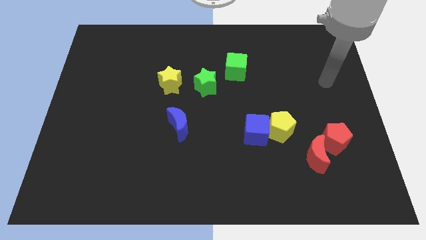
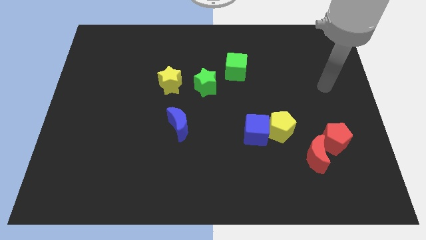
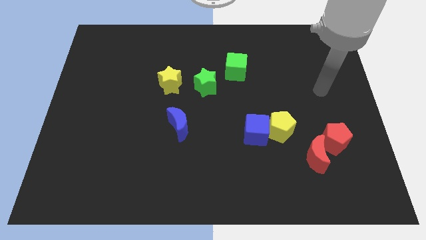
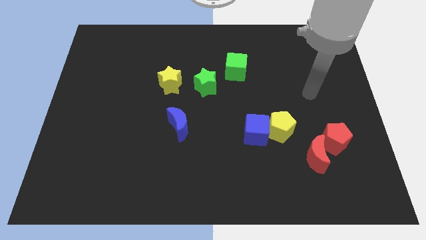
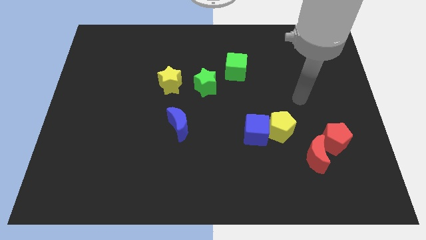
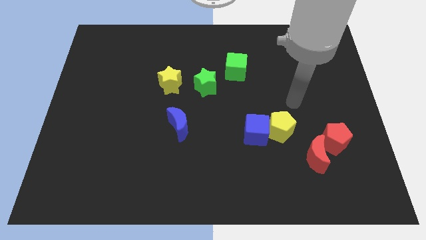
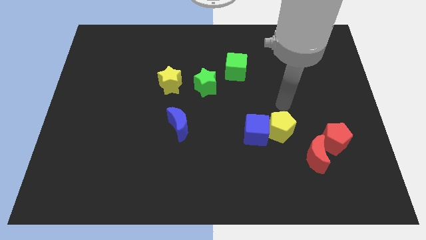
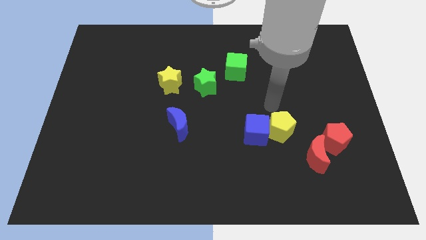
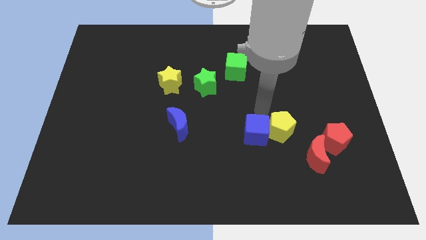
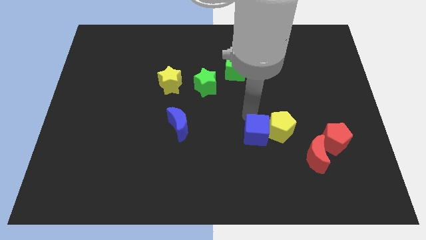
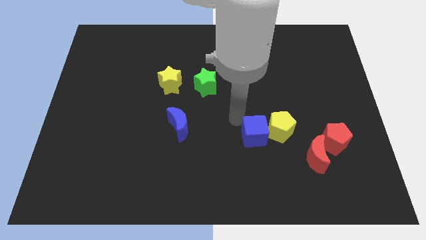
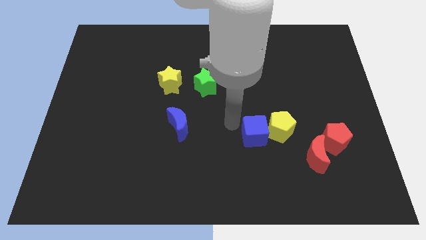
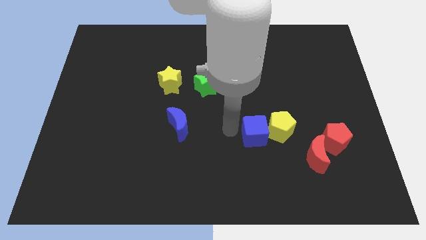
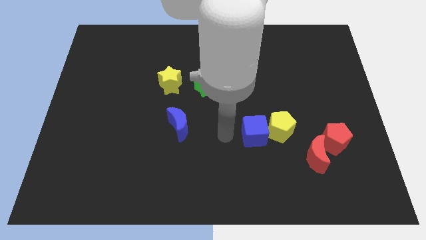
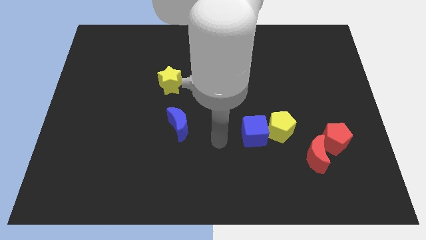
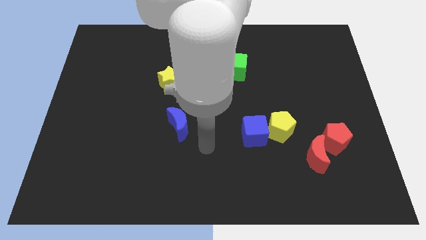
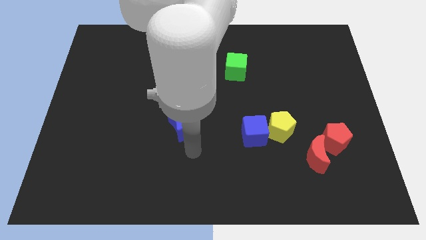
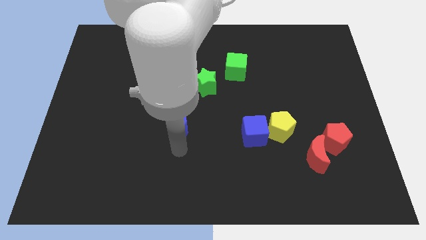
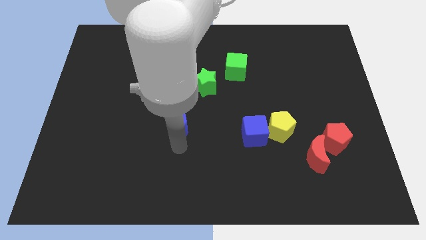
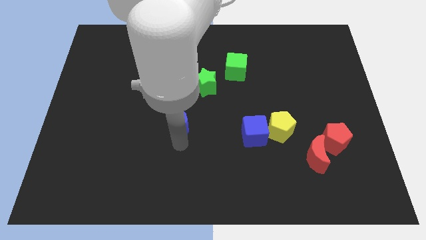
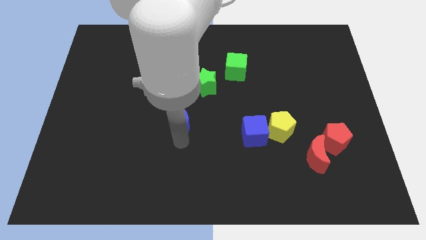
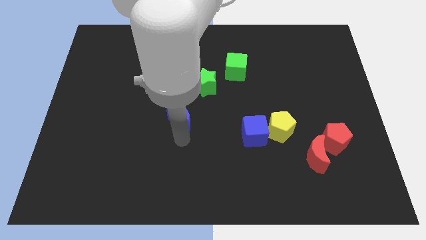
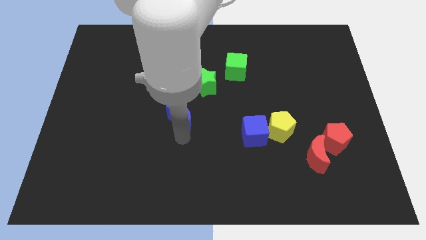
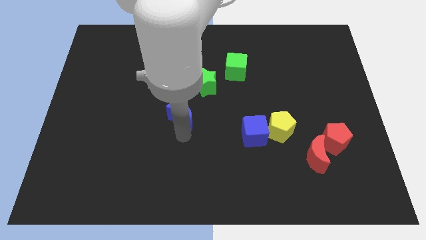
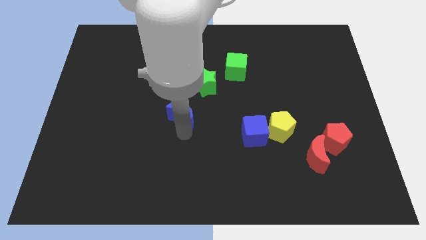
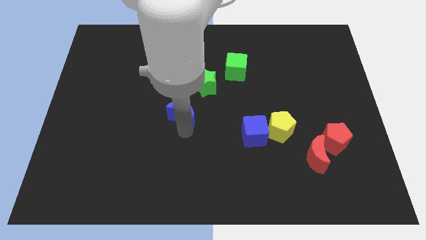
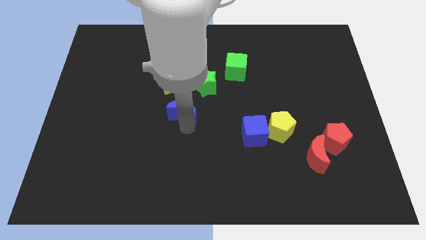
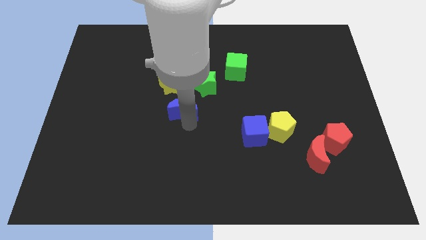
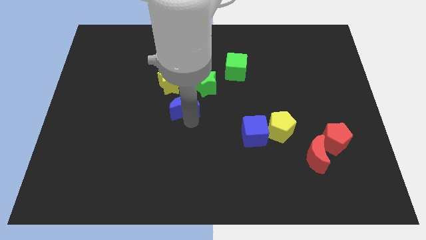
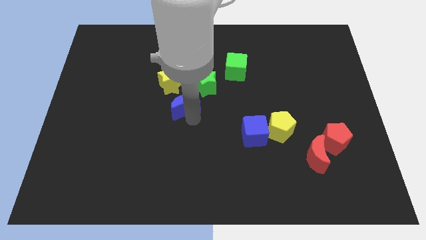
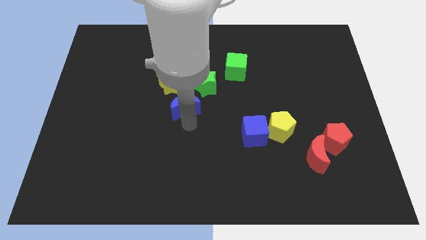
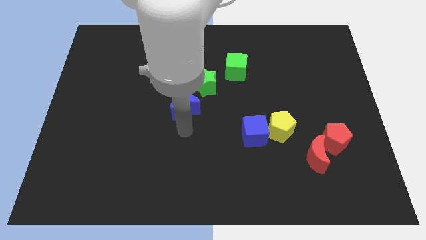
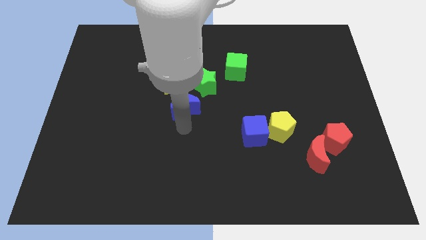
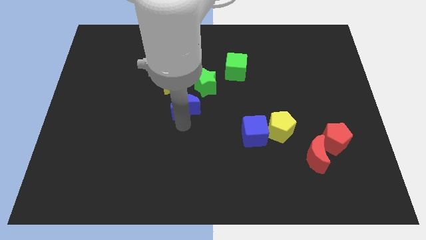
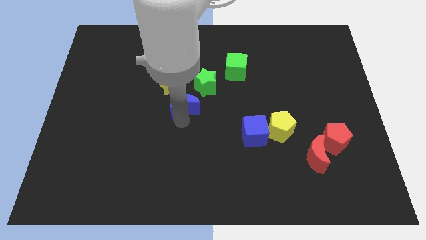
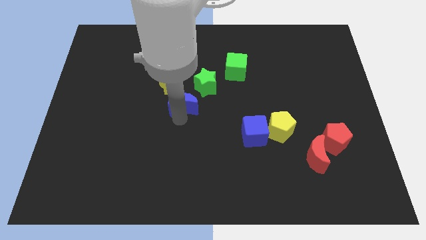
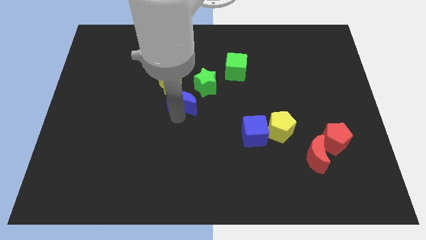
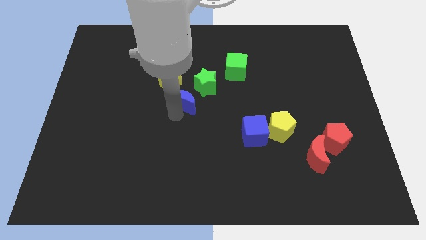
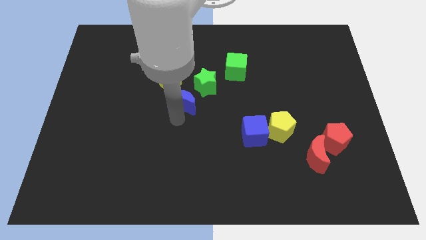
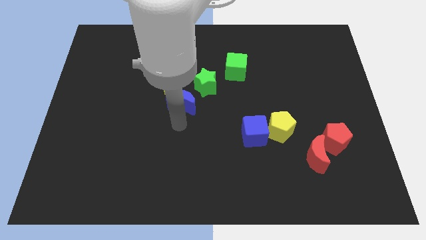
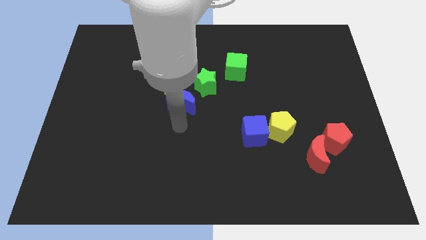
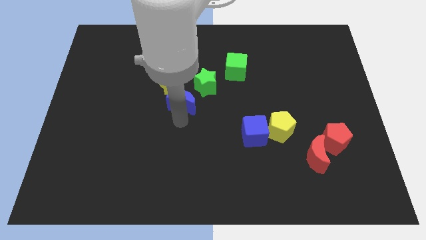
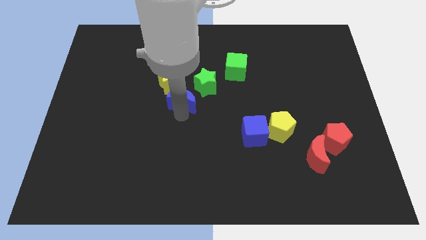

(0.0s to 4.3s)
move the blue moon a little upwards

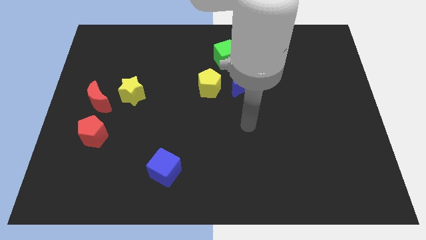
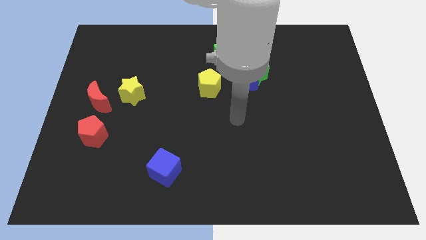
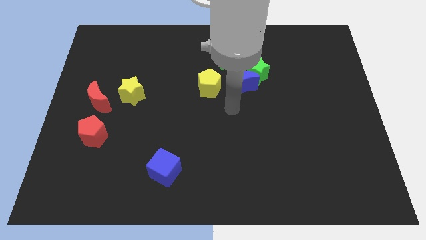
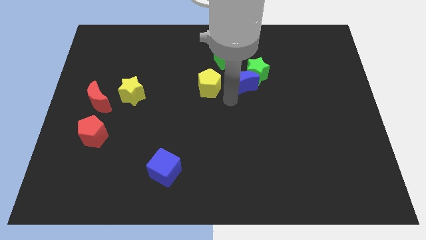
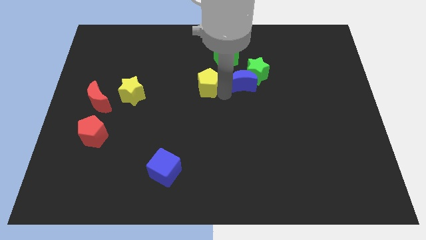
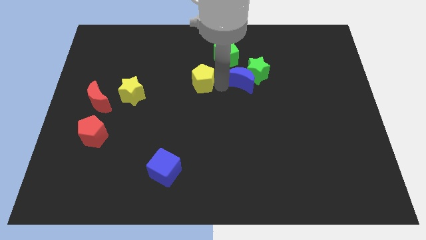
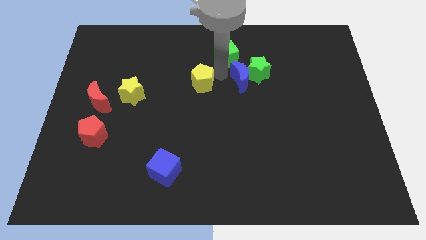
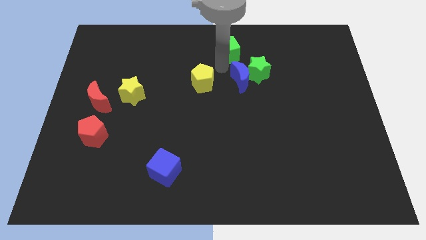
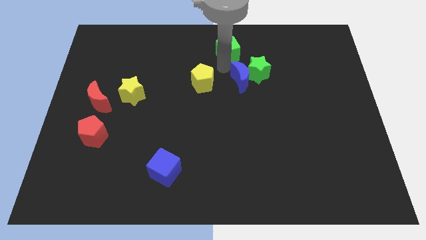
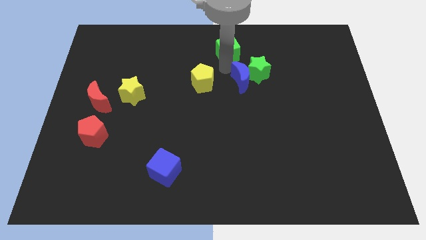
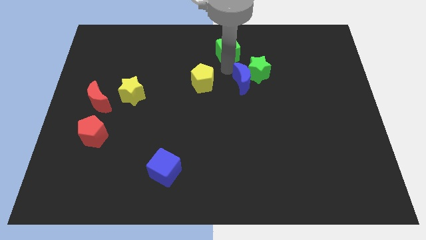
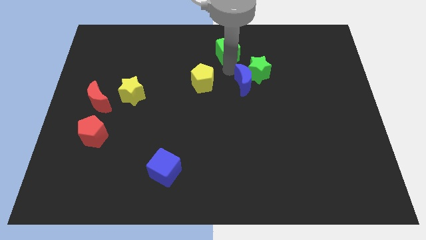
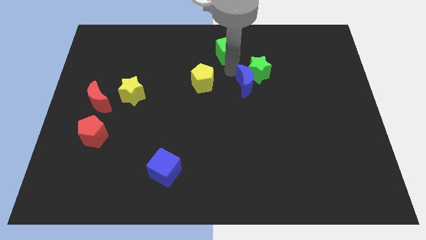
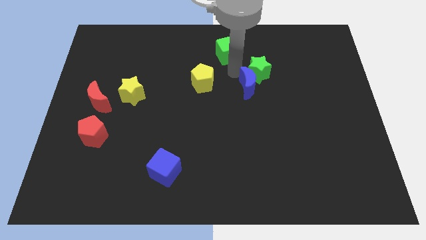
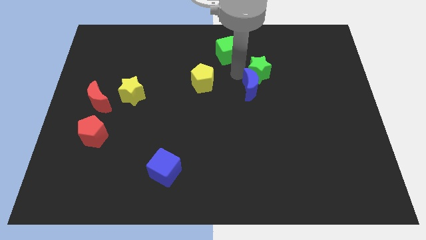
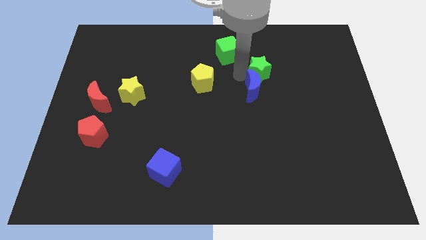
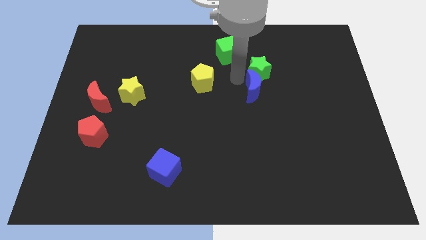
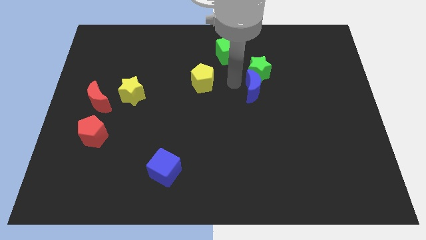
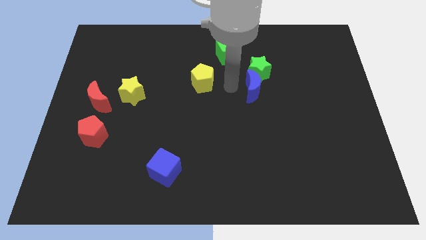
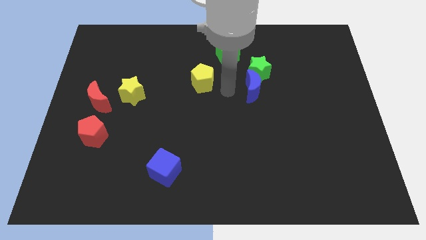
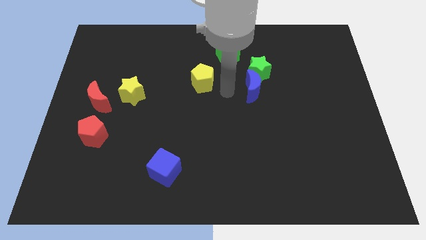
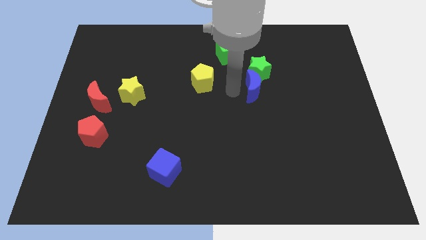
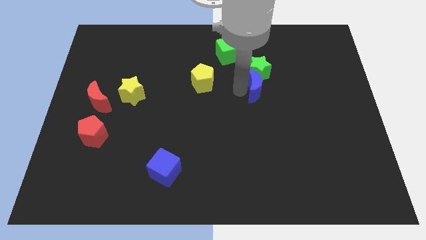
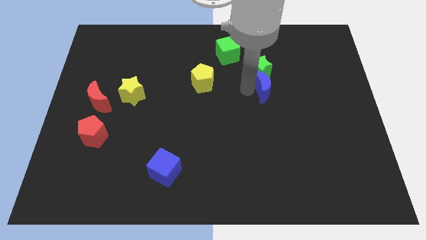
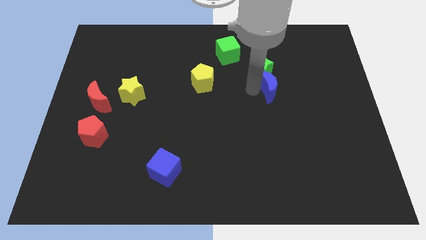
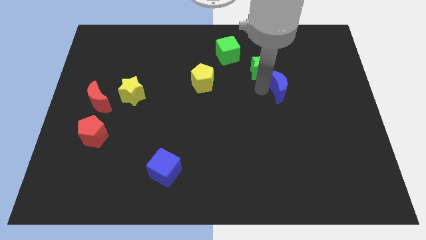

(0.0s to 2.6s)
slide the blue moon a bit right

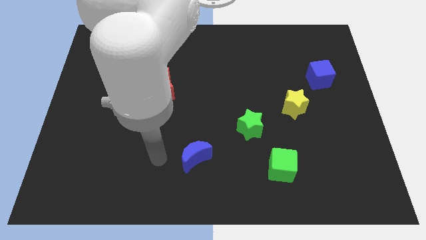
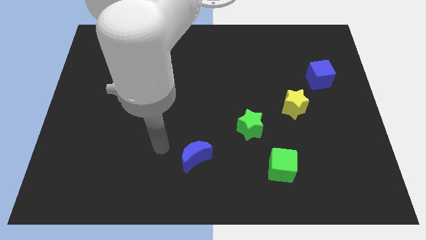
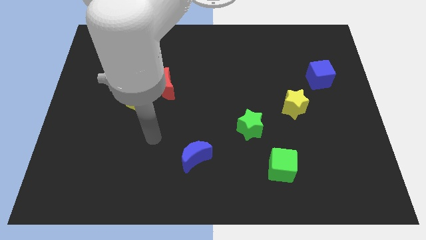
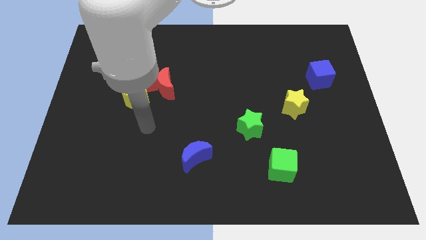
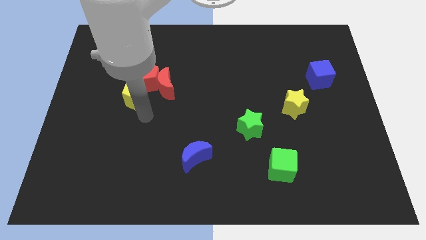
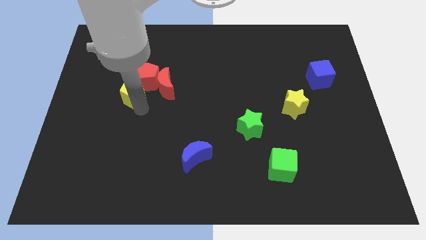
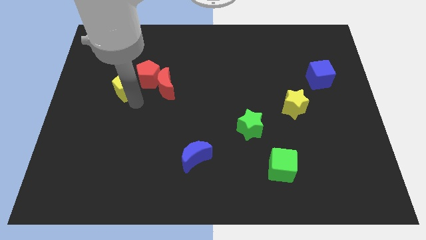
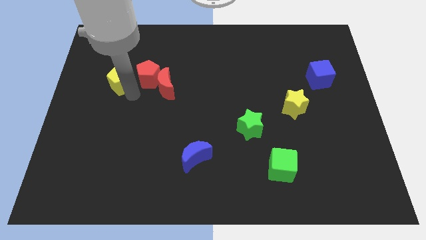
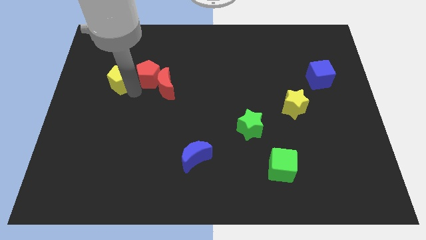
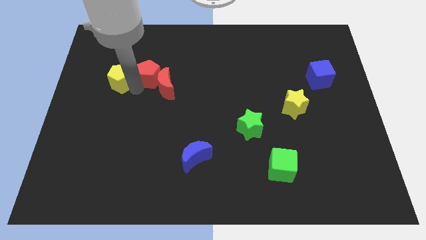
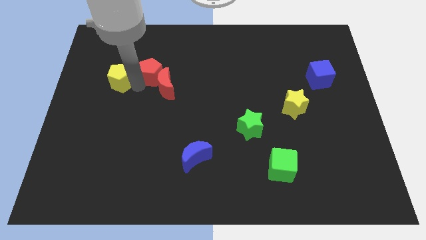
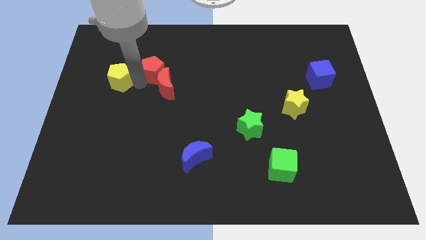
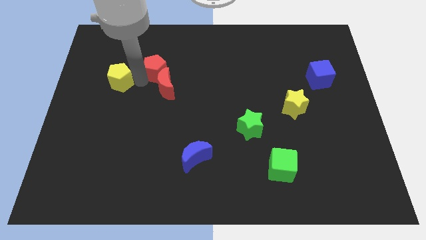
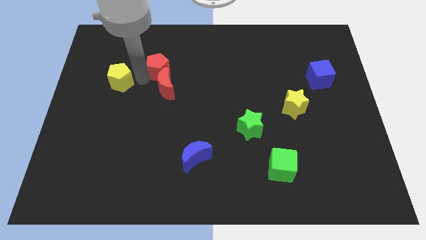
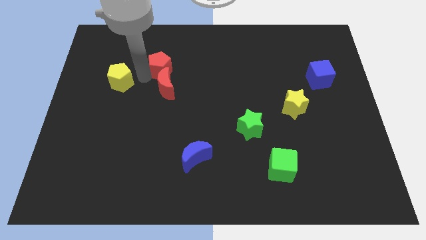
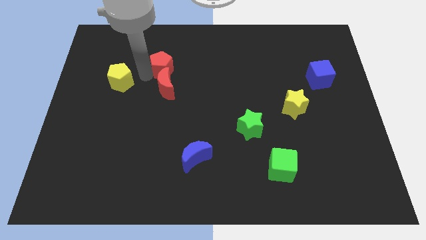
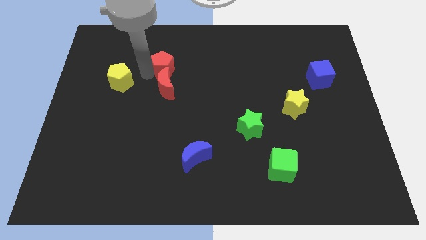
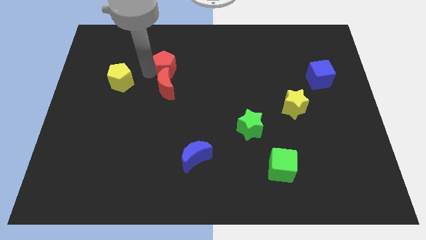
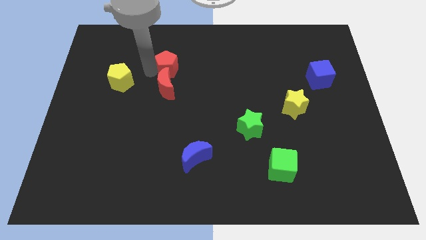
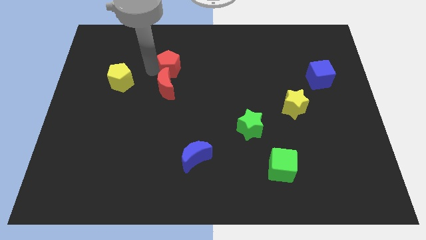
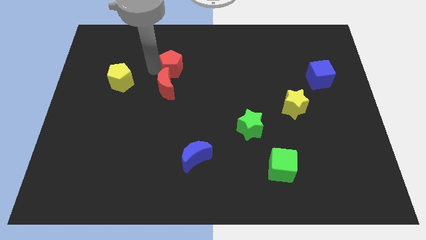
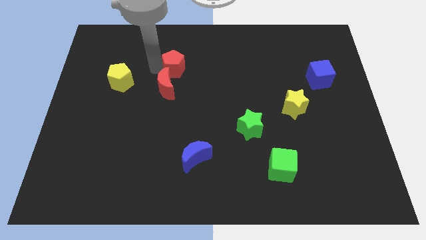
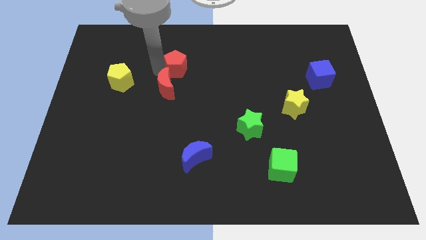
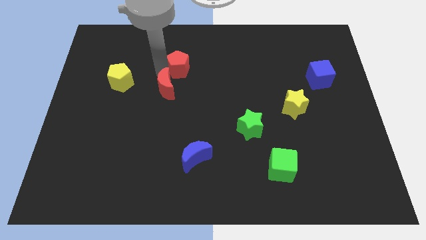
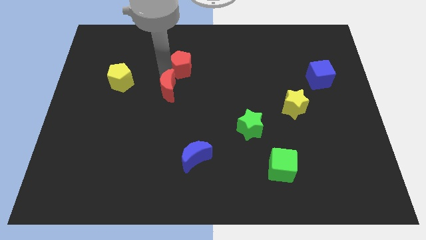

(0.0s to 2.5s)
move the red pentagon a little right
